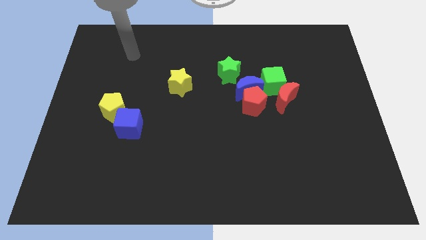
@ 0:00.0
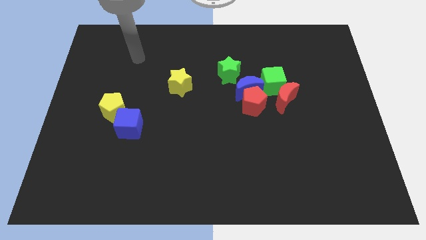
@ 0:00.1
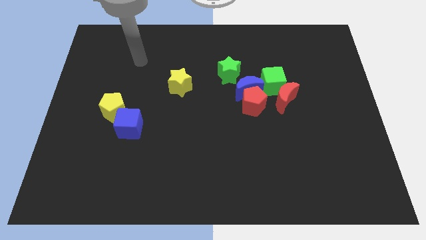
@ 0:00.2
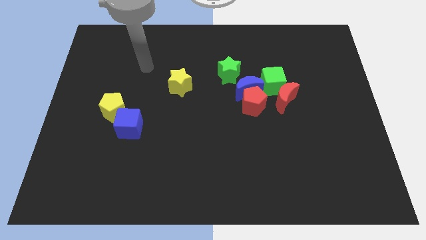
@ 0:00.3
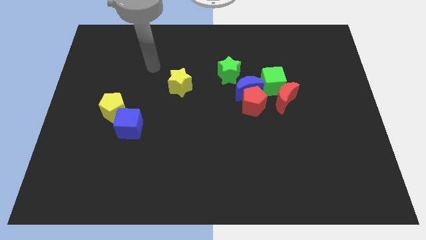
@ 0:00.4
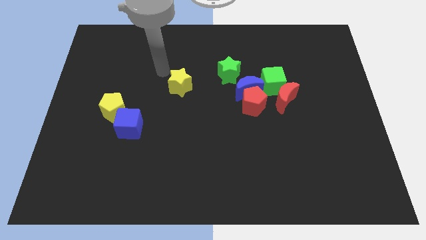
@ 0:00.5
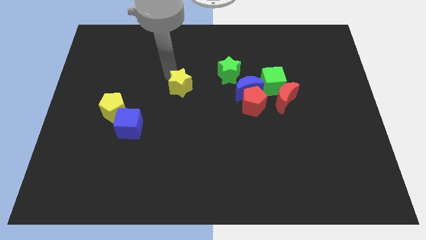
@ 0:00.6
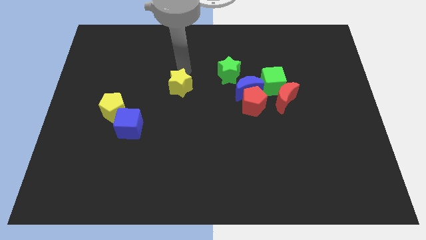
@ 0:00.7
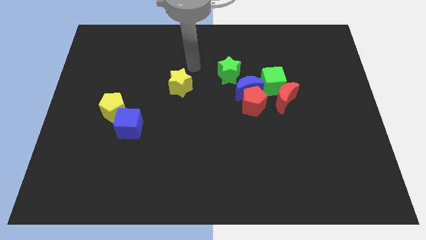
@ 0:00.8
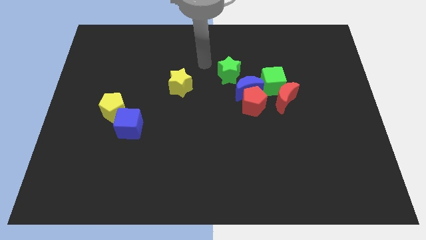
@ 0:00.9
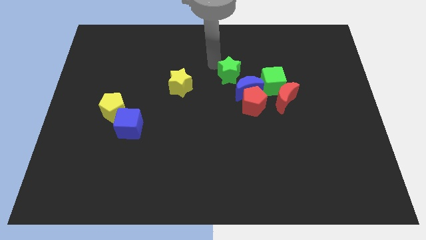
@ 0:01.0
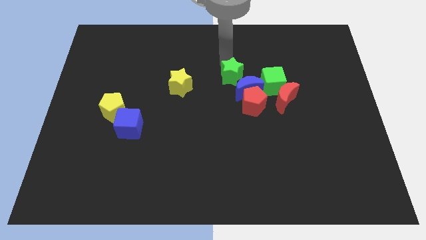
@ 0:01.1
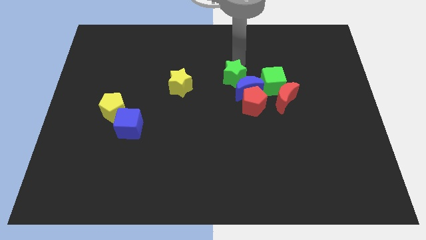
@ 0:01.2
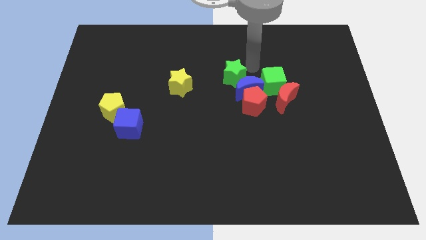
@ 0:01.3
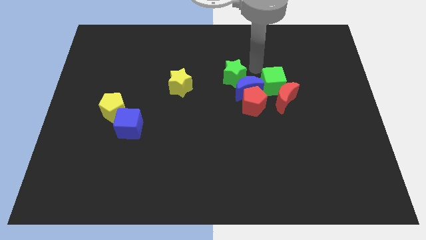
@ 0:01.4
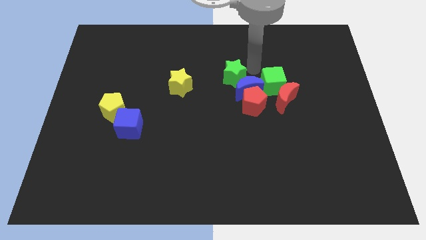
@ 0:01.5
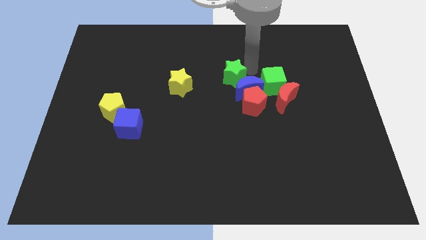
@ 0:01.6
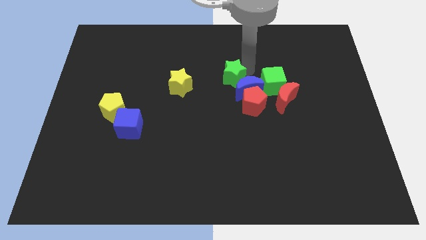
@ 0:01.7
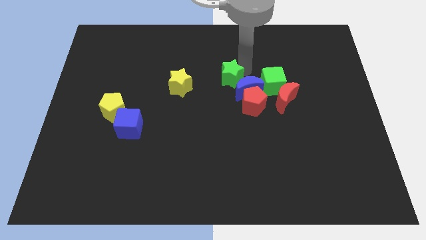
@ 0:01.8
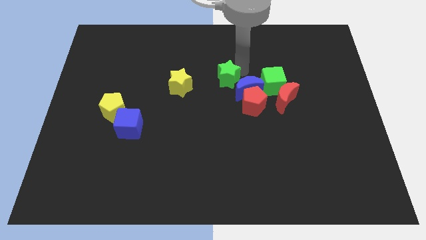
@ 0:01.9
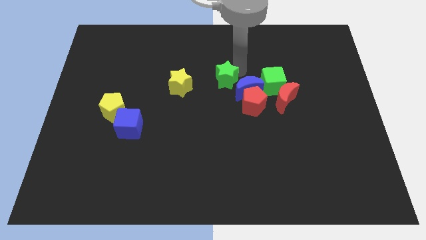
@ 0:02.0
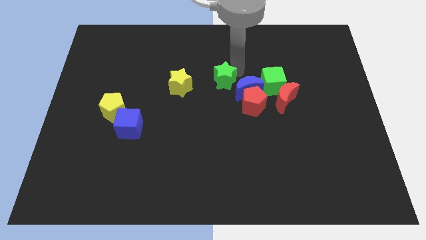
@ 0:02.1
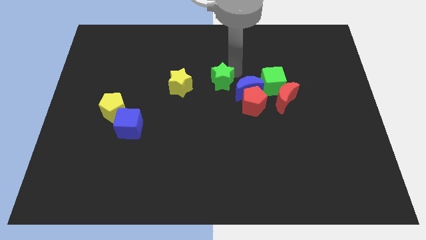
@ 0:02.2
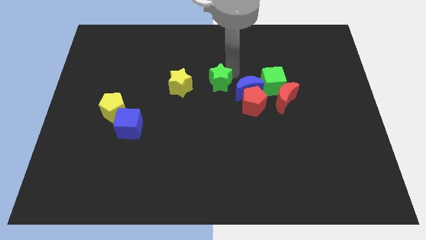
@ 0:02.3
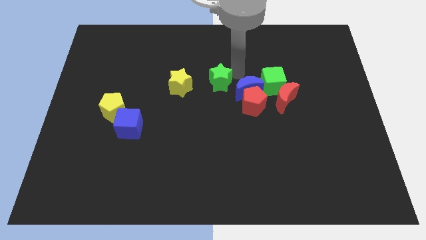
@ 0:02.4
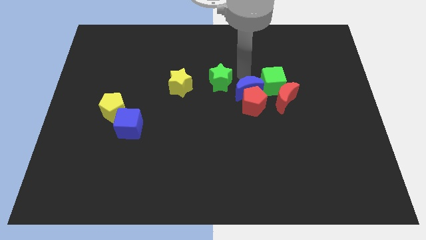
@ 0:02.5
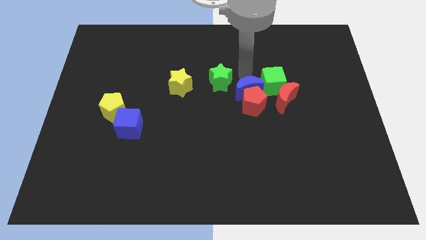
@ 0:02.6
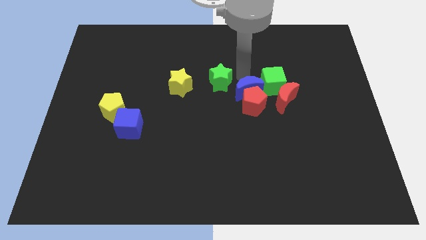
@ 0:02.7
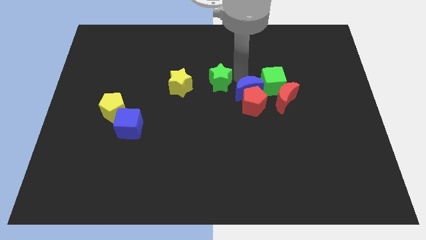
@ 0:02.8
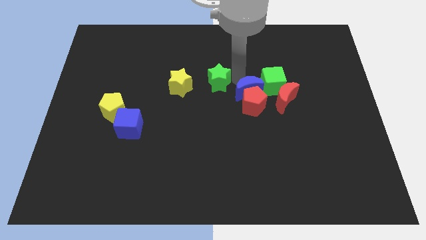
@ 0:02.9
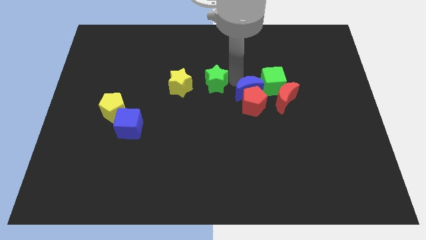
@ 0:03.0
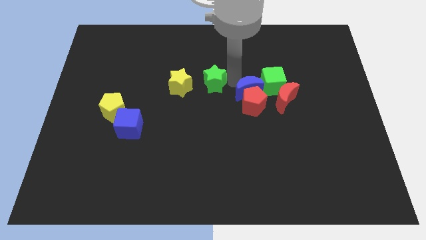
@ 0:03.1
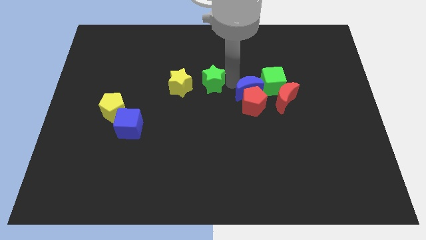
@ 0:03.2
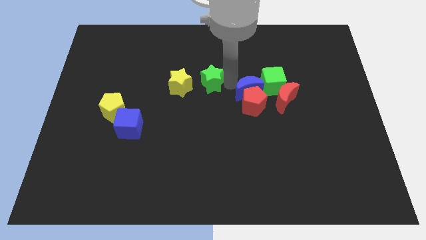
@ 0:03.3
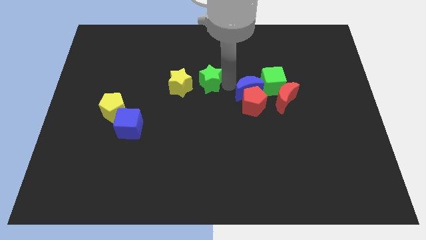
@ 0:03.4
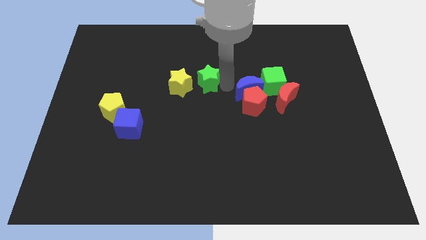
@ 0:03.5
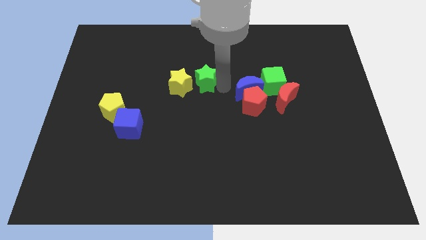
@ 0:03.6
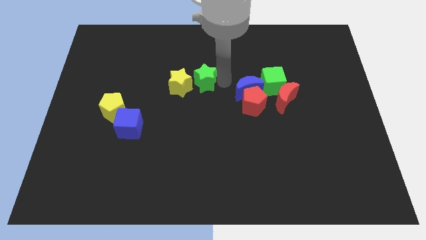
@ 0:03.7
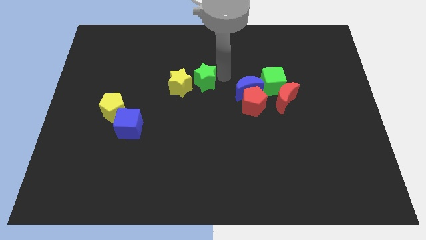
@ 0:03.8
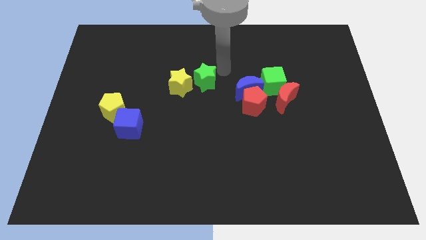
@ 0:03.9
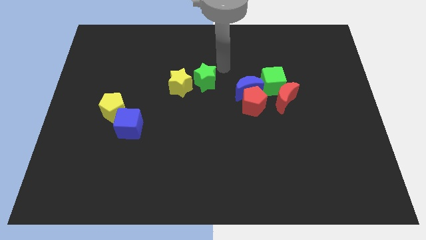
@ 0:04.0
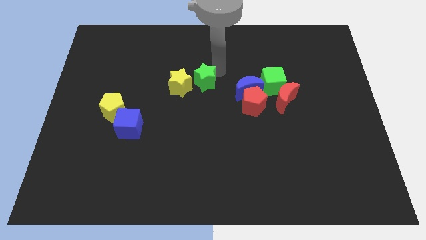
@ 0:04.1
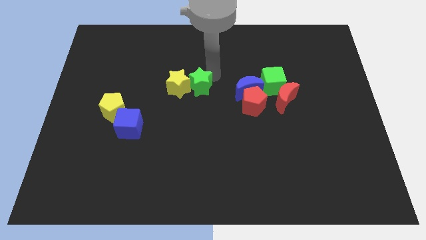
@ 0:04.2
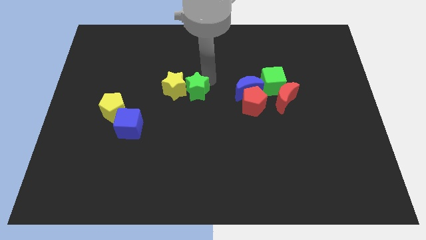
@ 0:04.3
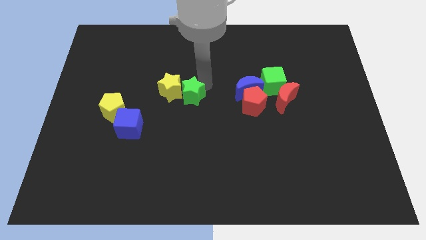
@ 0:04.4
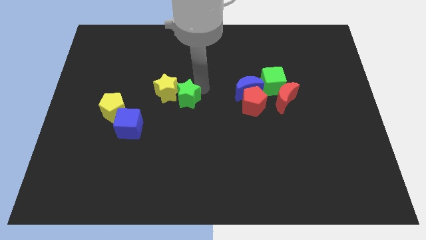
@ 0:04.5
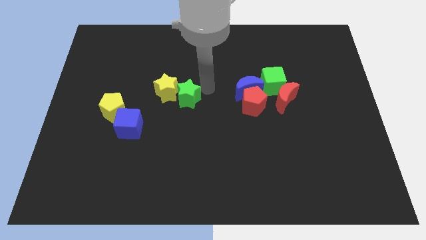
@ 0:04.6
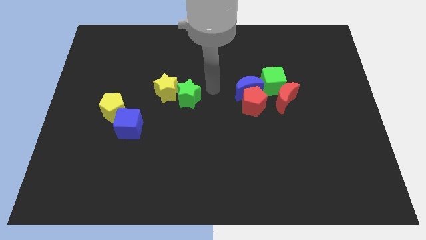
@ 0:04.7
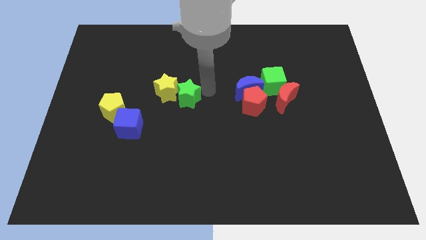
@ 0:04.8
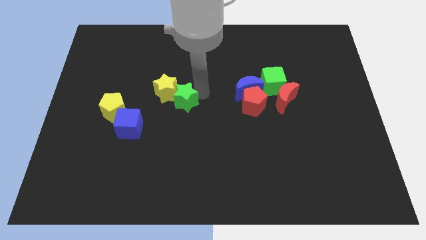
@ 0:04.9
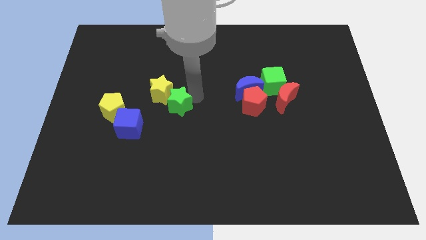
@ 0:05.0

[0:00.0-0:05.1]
push the green star to the right of the yellow pentagon

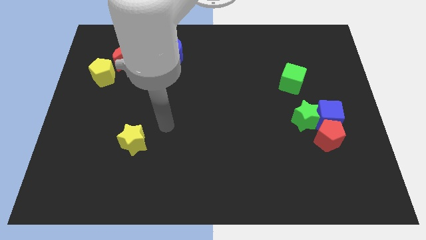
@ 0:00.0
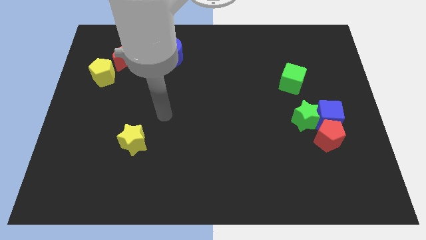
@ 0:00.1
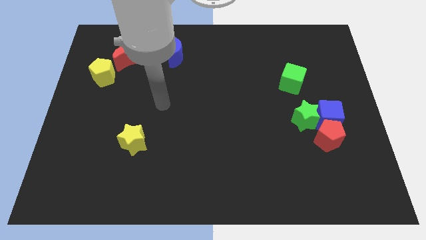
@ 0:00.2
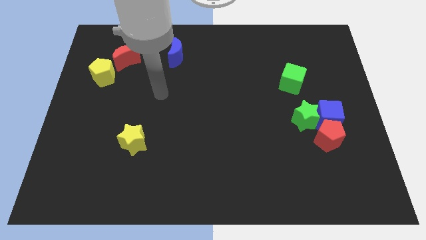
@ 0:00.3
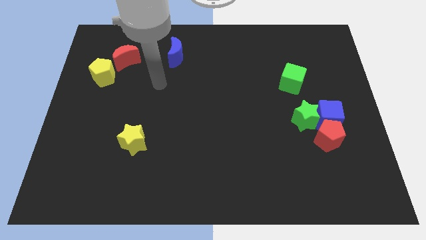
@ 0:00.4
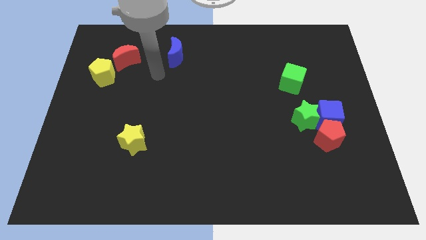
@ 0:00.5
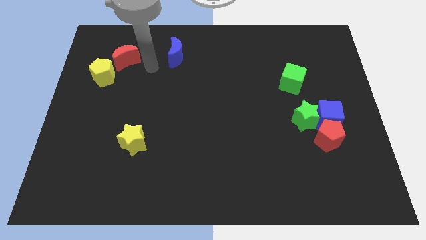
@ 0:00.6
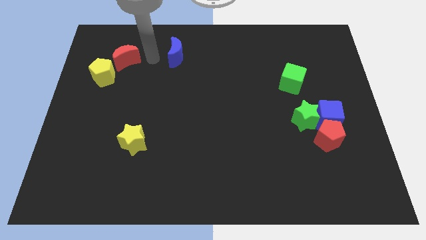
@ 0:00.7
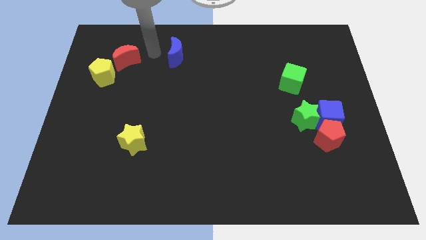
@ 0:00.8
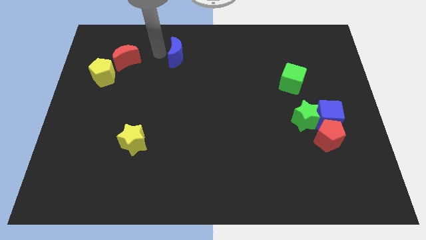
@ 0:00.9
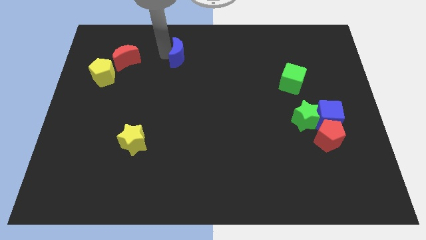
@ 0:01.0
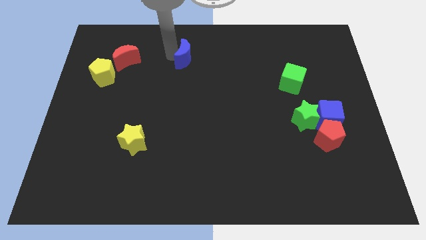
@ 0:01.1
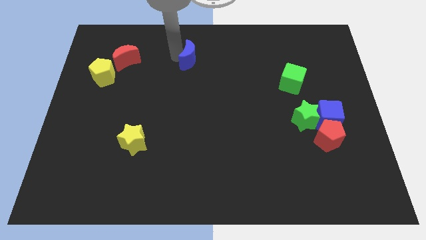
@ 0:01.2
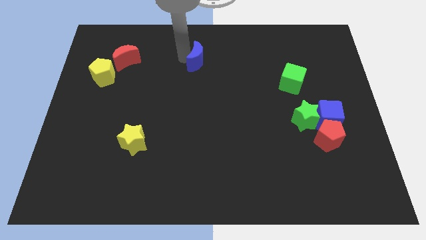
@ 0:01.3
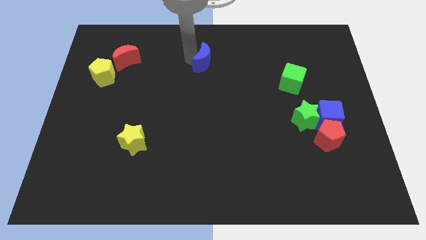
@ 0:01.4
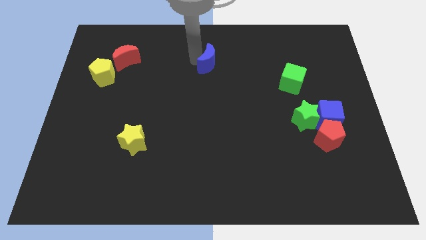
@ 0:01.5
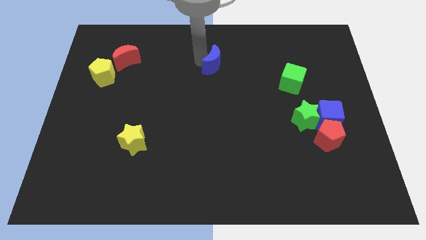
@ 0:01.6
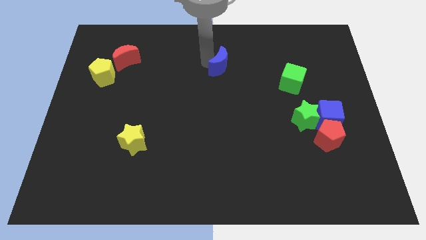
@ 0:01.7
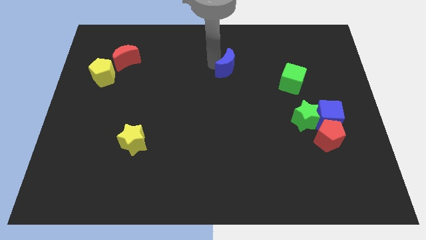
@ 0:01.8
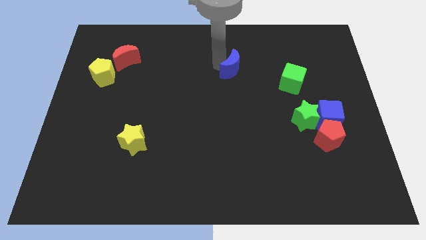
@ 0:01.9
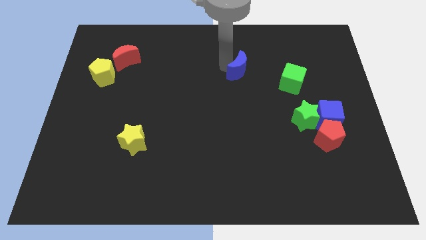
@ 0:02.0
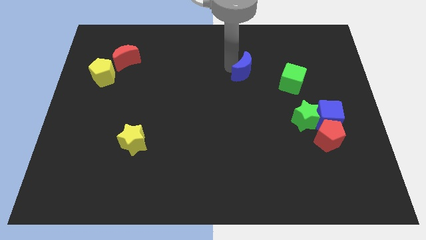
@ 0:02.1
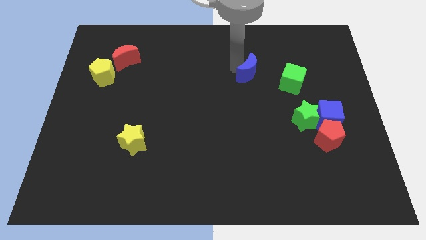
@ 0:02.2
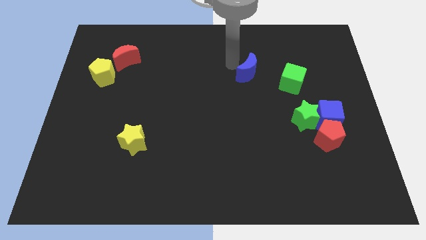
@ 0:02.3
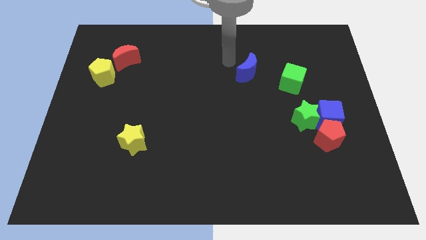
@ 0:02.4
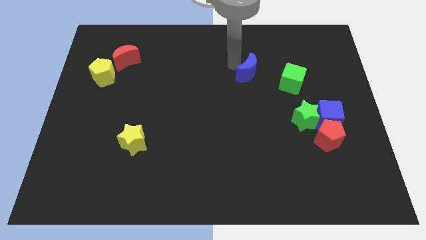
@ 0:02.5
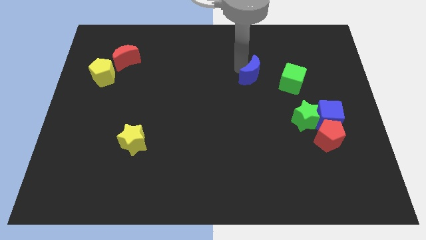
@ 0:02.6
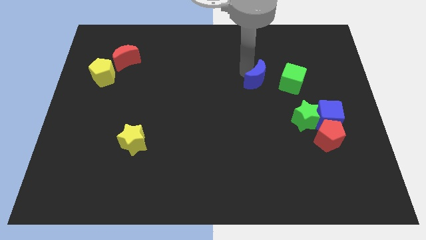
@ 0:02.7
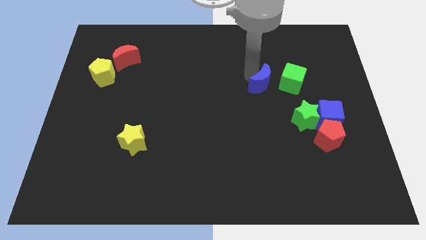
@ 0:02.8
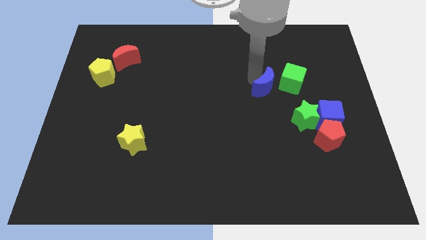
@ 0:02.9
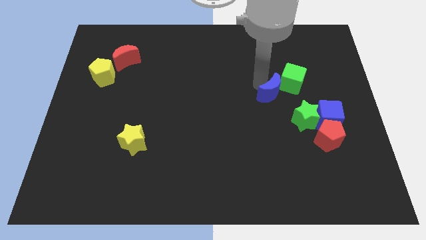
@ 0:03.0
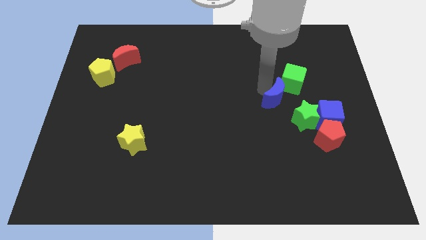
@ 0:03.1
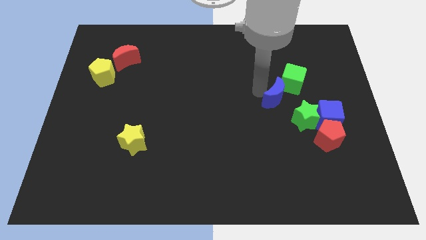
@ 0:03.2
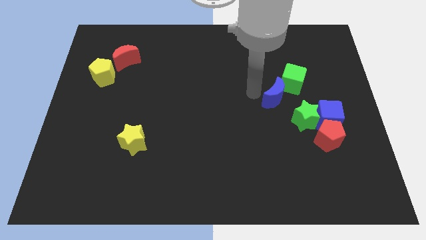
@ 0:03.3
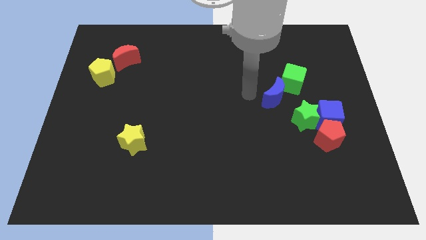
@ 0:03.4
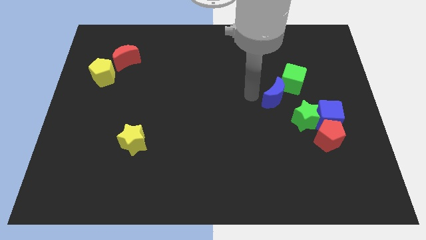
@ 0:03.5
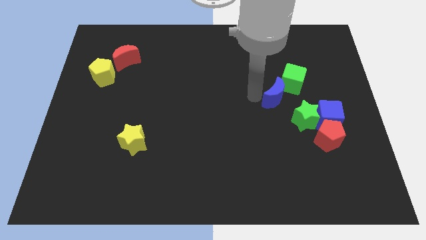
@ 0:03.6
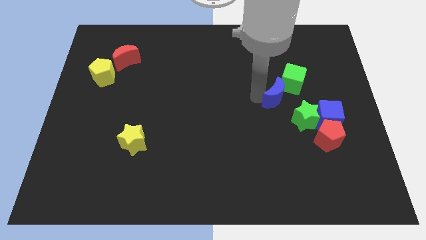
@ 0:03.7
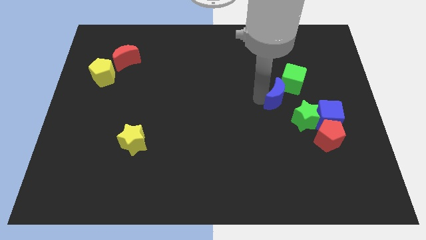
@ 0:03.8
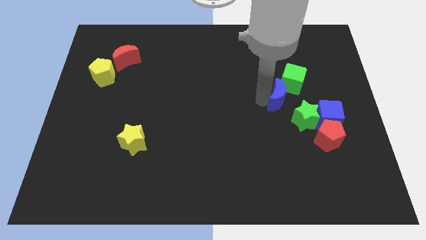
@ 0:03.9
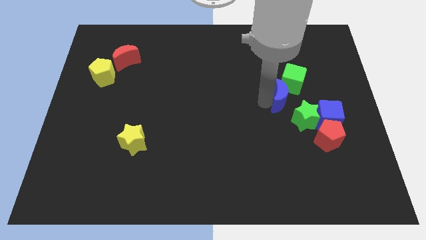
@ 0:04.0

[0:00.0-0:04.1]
push the blue moon diagonally up and to the left of the blue cube
